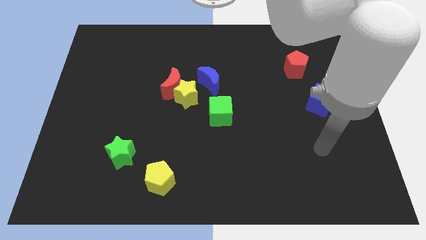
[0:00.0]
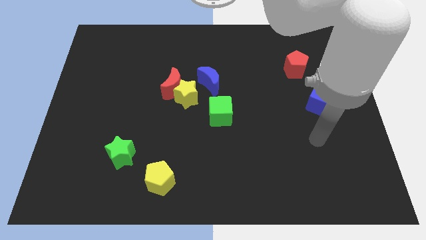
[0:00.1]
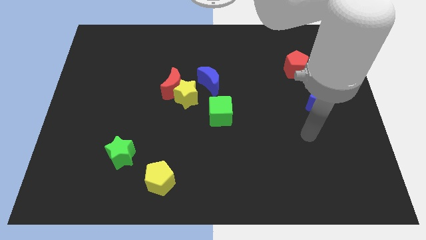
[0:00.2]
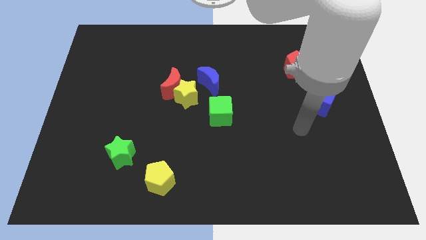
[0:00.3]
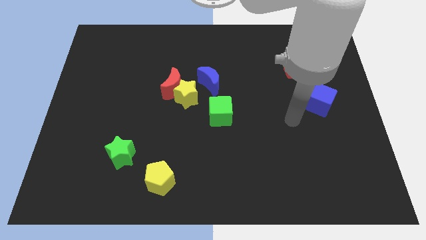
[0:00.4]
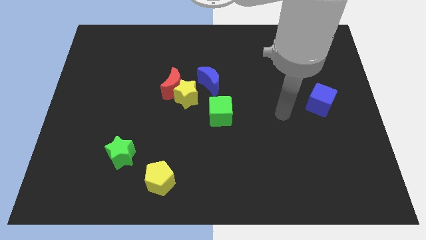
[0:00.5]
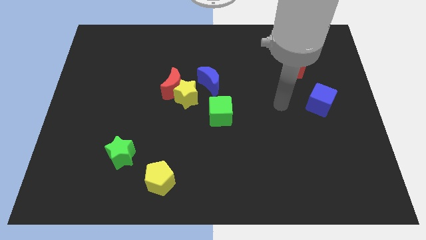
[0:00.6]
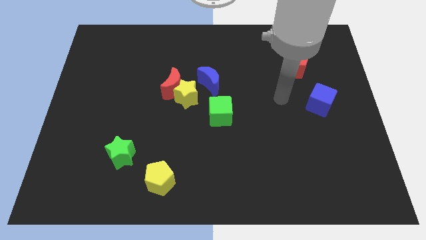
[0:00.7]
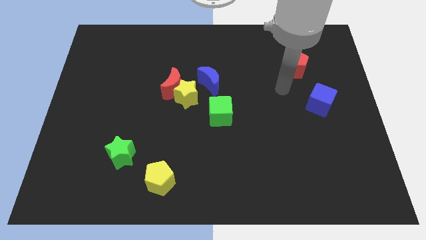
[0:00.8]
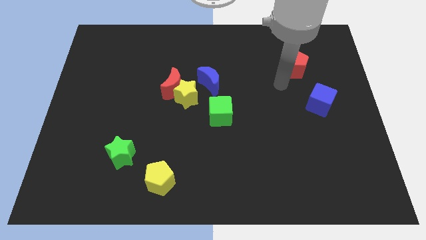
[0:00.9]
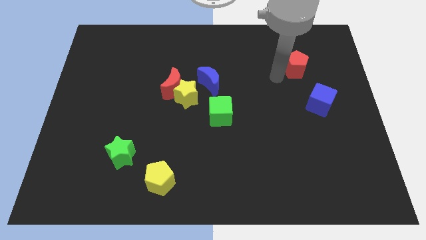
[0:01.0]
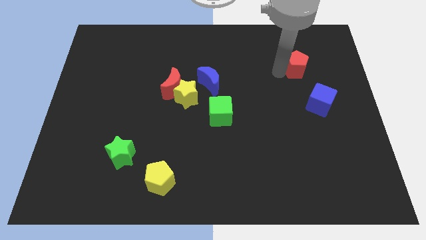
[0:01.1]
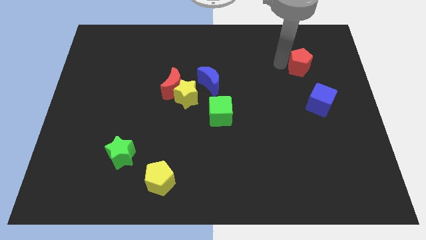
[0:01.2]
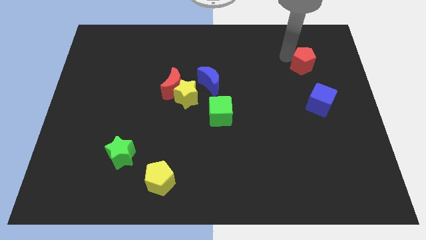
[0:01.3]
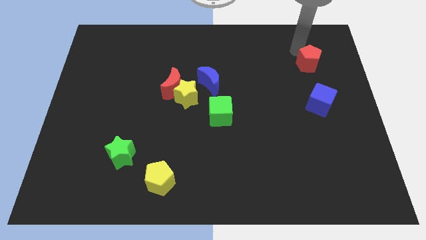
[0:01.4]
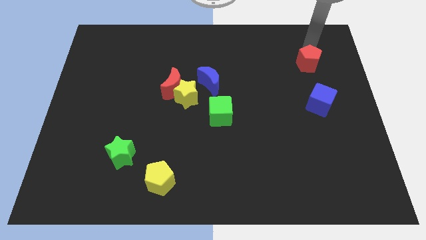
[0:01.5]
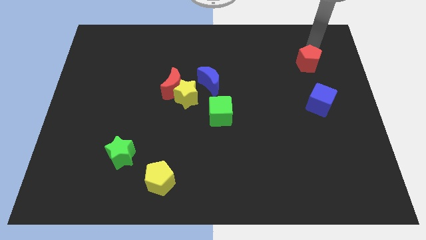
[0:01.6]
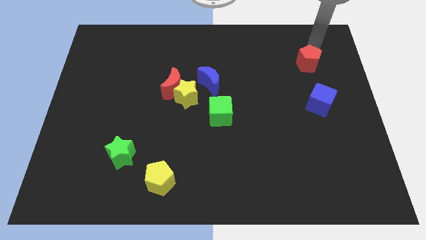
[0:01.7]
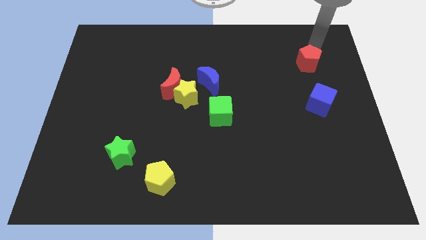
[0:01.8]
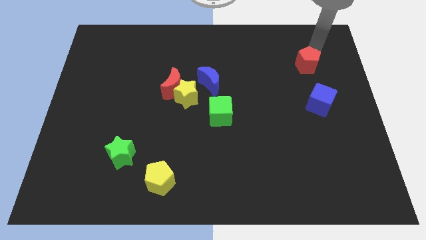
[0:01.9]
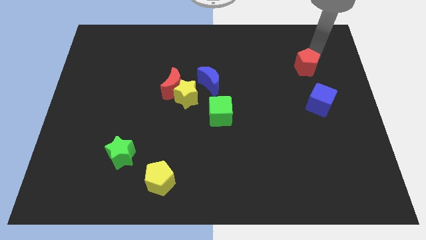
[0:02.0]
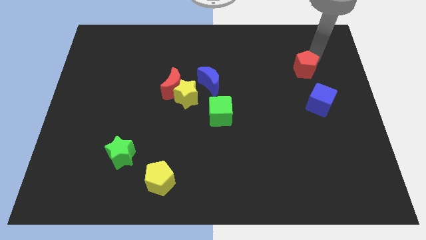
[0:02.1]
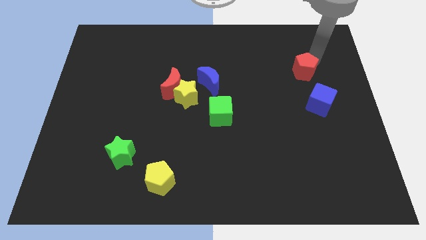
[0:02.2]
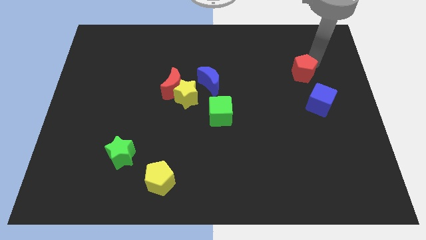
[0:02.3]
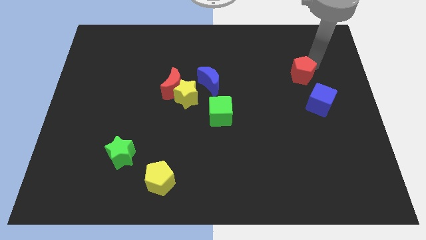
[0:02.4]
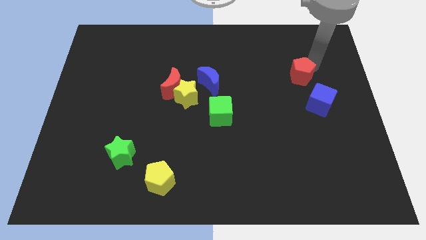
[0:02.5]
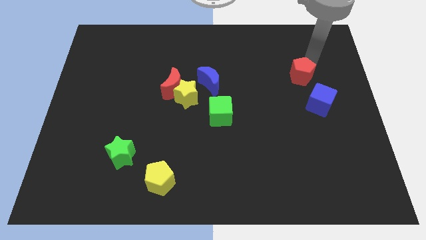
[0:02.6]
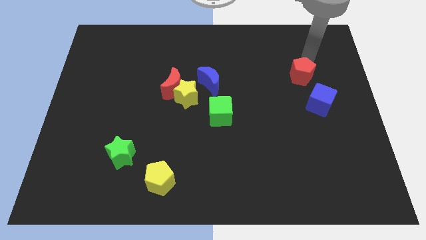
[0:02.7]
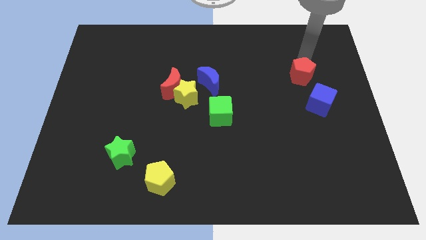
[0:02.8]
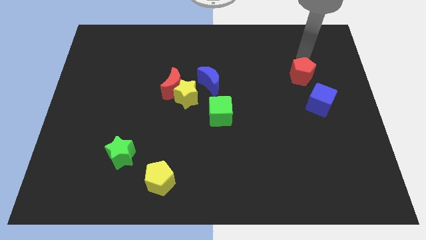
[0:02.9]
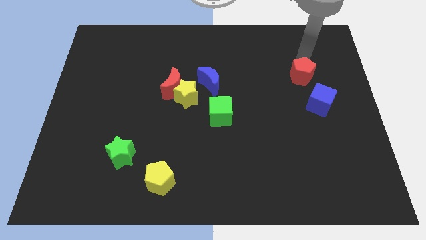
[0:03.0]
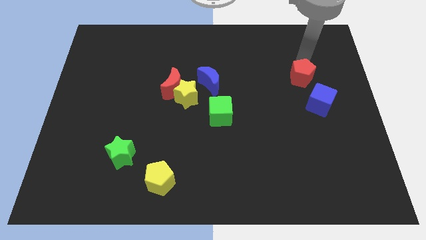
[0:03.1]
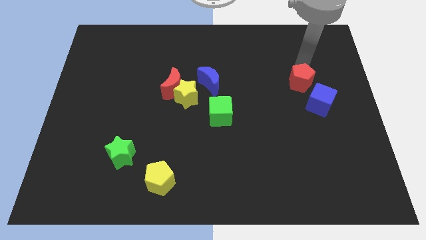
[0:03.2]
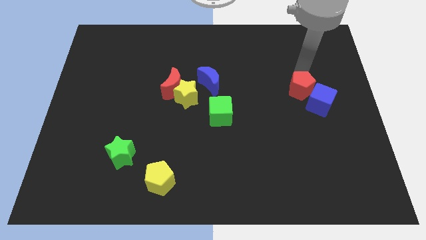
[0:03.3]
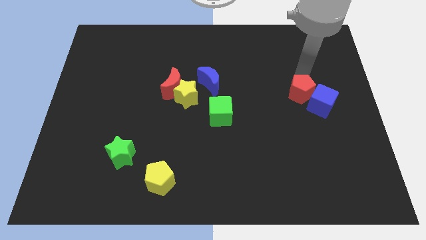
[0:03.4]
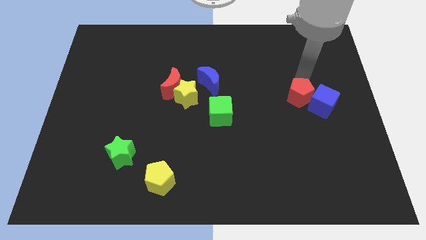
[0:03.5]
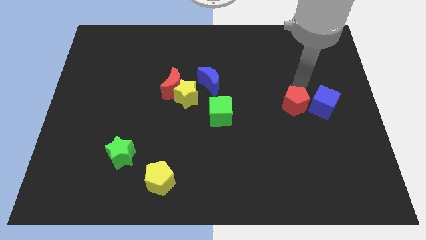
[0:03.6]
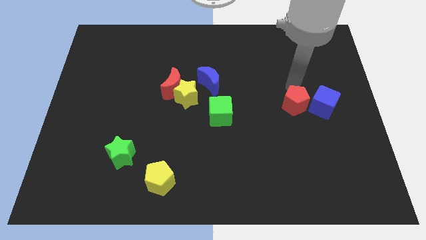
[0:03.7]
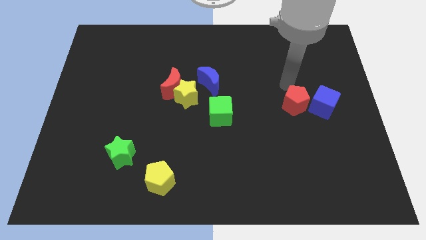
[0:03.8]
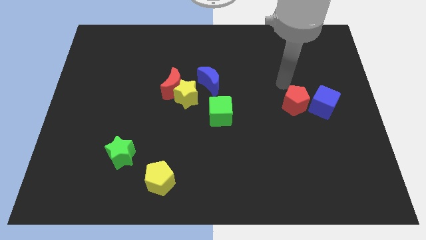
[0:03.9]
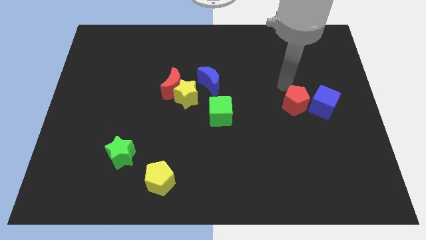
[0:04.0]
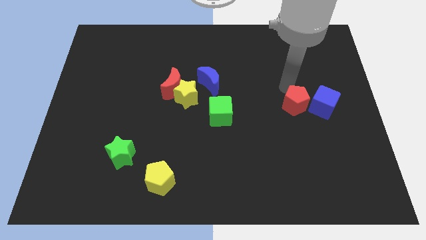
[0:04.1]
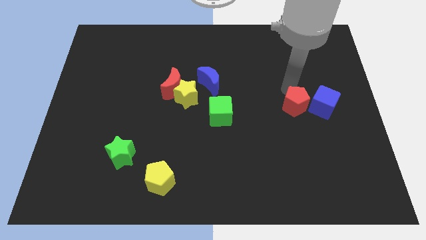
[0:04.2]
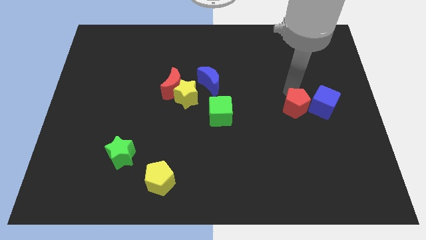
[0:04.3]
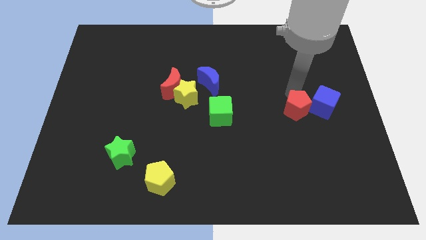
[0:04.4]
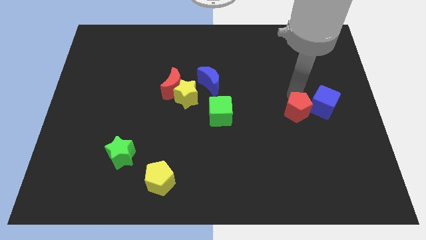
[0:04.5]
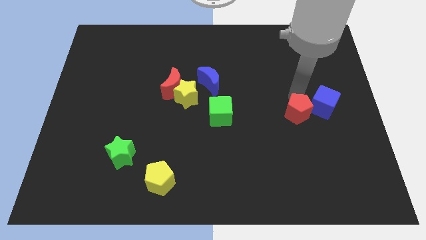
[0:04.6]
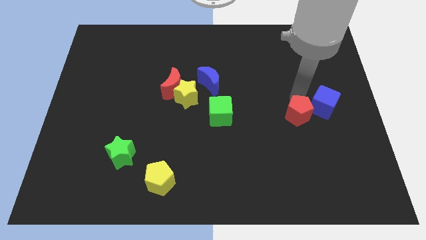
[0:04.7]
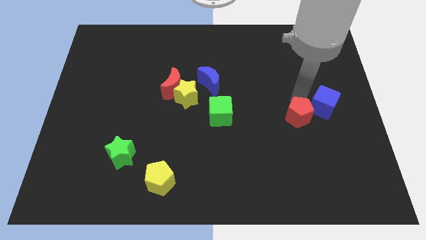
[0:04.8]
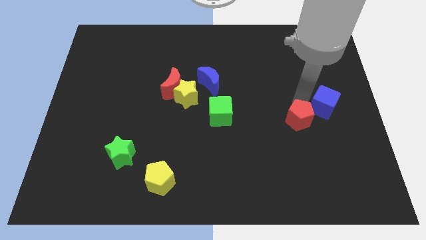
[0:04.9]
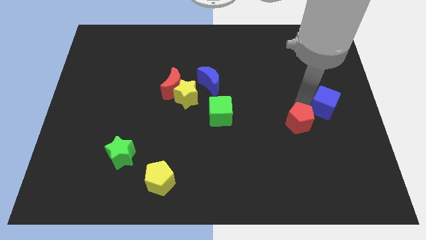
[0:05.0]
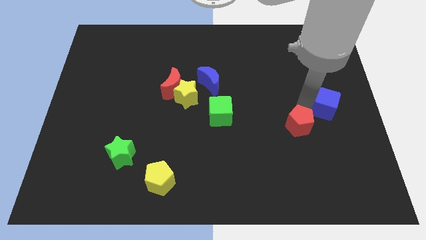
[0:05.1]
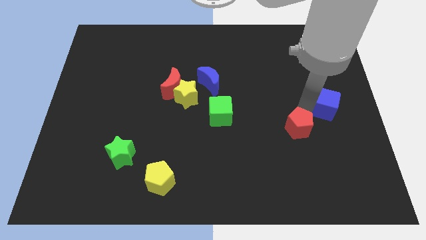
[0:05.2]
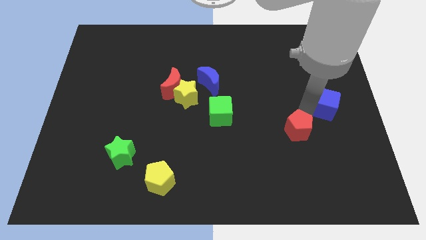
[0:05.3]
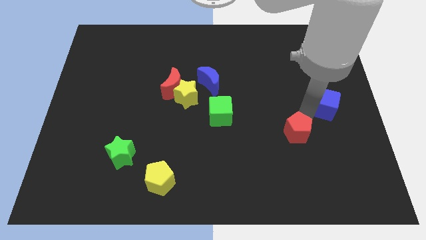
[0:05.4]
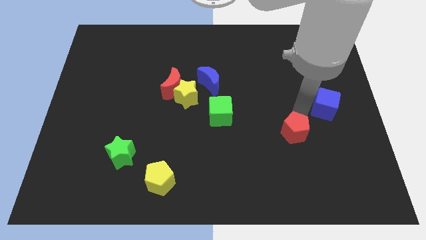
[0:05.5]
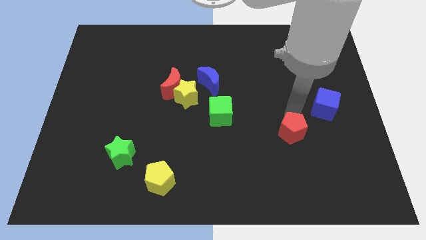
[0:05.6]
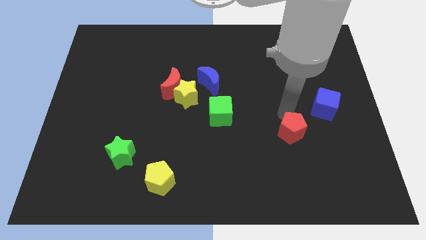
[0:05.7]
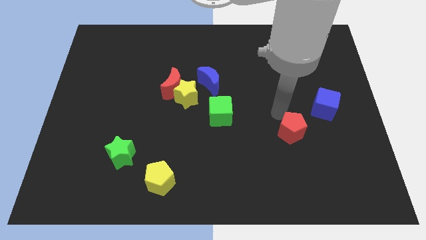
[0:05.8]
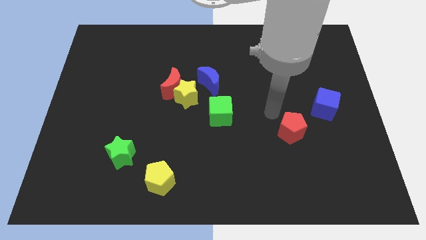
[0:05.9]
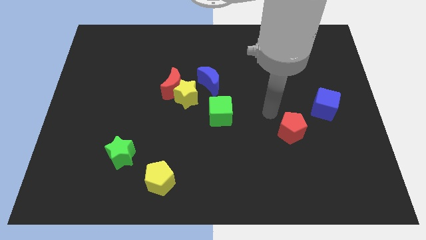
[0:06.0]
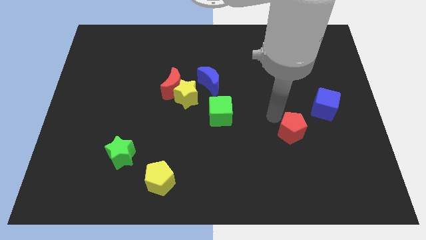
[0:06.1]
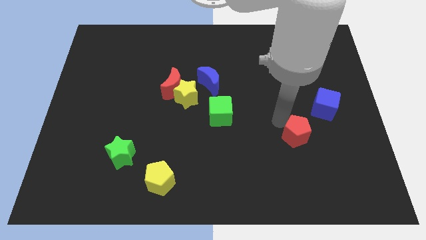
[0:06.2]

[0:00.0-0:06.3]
move the red pentagon downwards

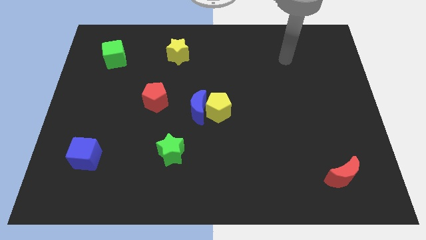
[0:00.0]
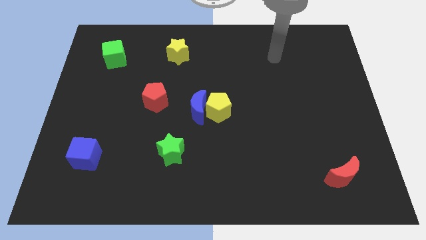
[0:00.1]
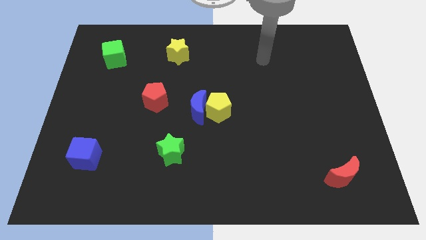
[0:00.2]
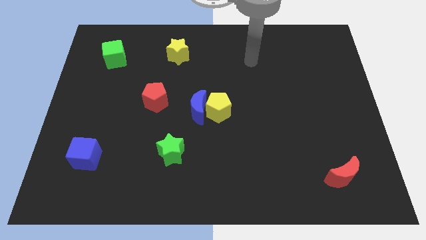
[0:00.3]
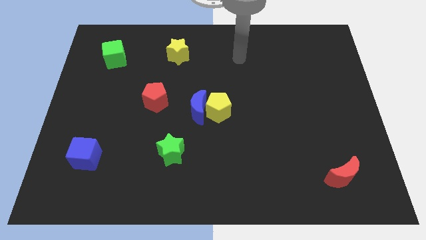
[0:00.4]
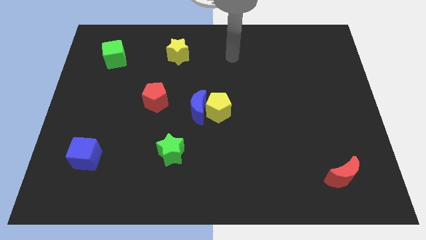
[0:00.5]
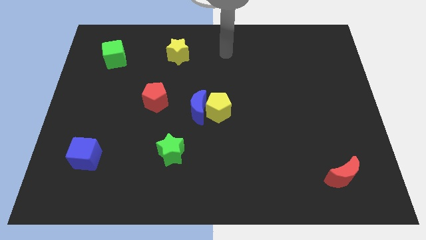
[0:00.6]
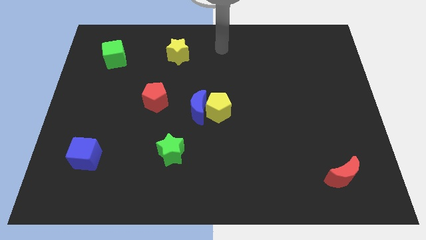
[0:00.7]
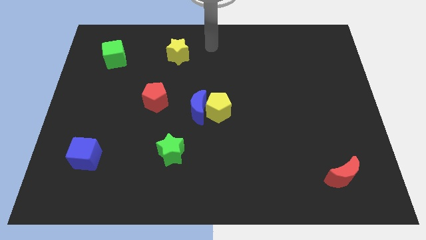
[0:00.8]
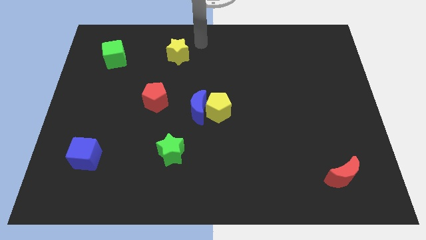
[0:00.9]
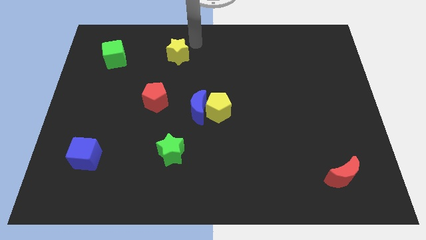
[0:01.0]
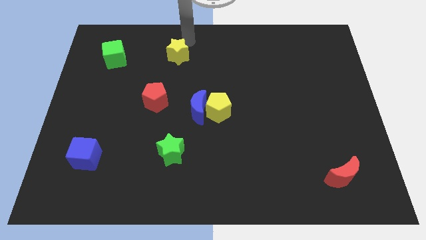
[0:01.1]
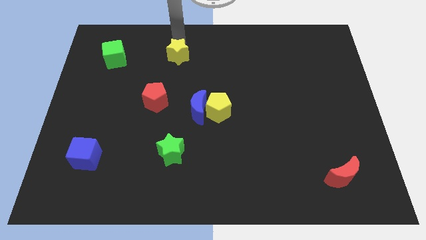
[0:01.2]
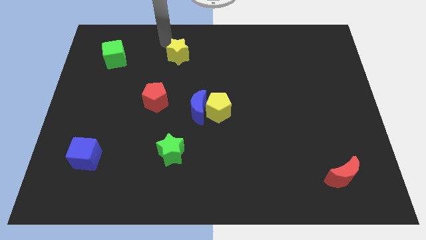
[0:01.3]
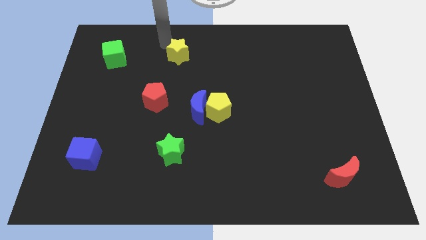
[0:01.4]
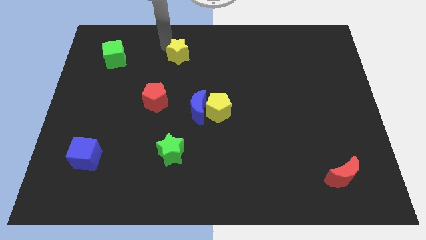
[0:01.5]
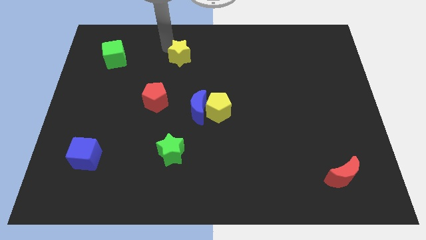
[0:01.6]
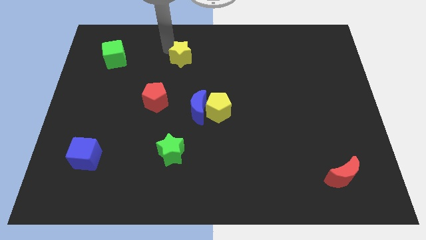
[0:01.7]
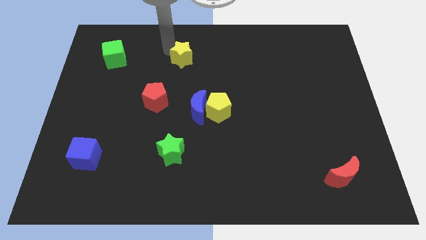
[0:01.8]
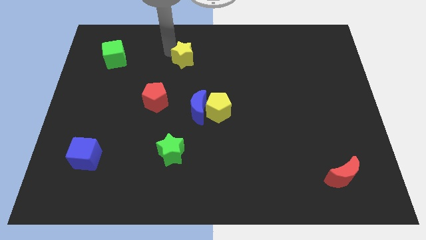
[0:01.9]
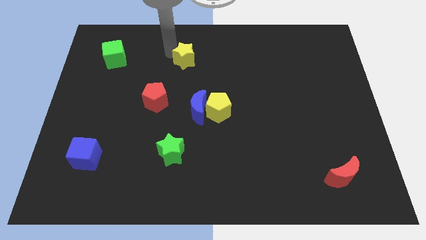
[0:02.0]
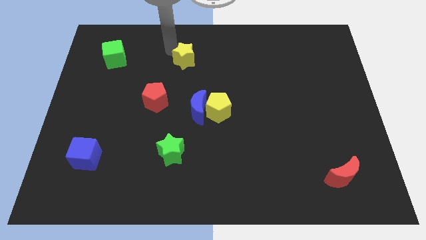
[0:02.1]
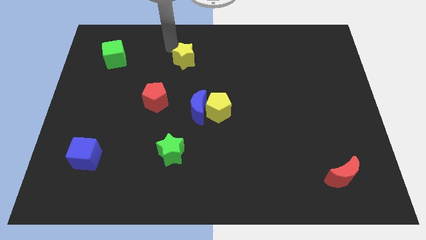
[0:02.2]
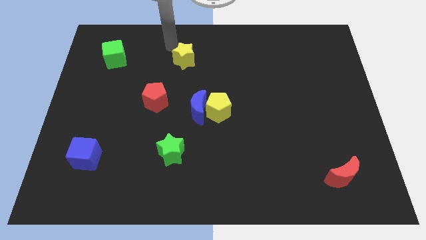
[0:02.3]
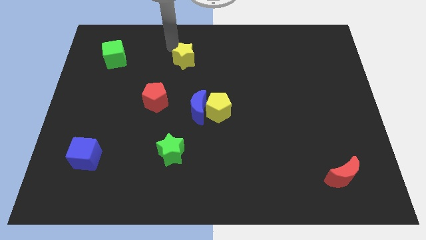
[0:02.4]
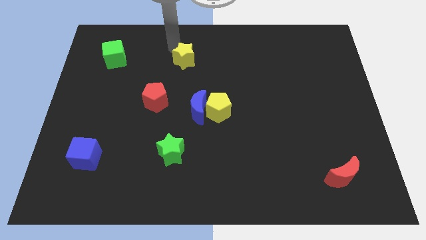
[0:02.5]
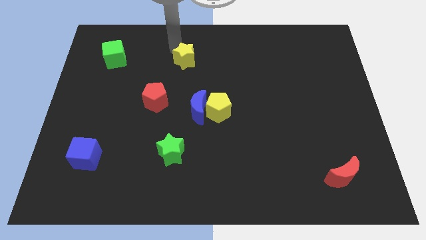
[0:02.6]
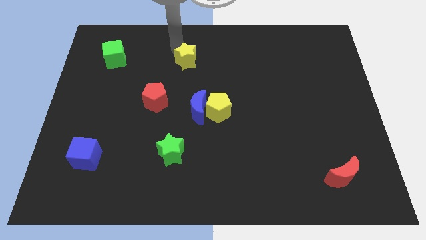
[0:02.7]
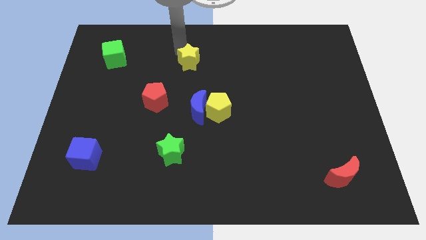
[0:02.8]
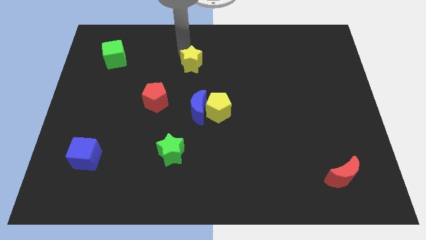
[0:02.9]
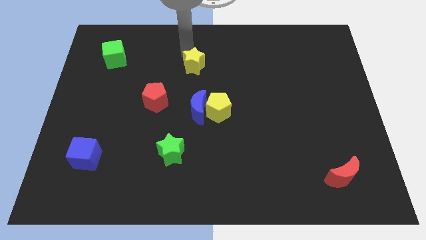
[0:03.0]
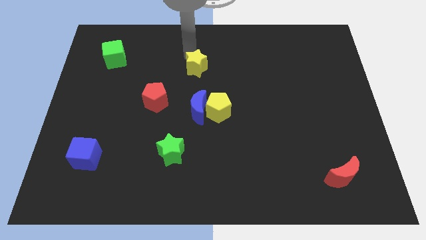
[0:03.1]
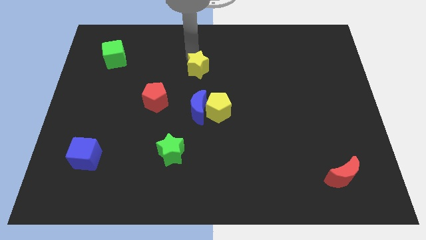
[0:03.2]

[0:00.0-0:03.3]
push the yellow star diagonally down and right a bit
